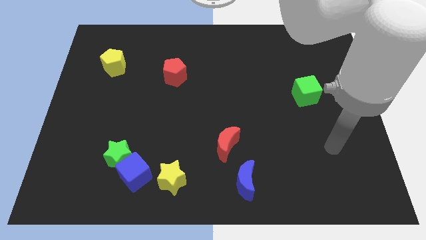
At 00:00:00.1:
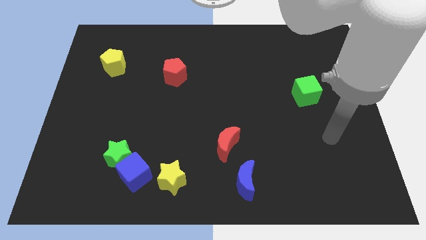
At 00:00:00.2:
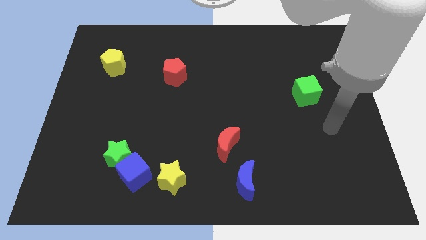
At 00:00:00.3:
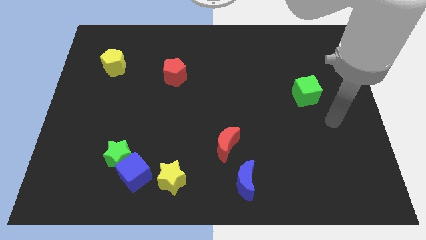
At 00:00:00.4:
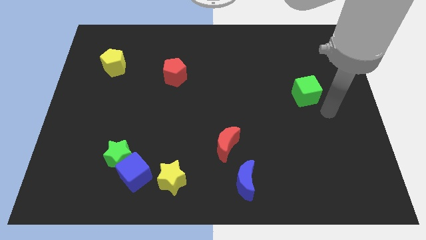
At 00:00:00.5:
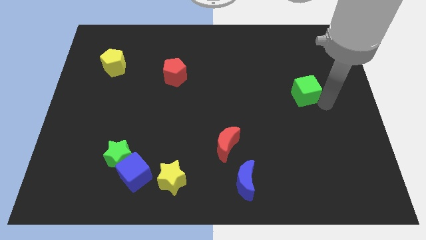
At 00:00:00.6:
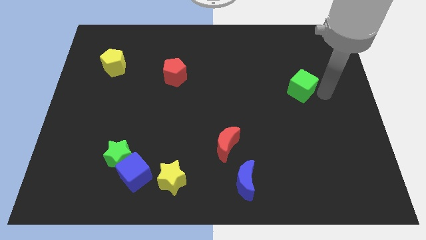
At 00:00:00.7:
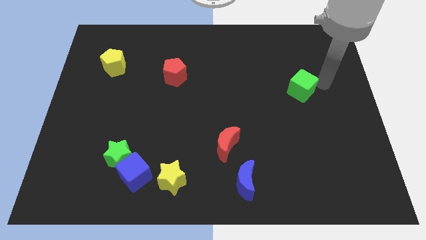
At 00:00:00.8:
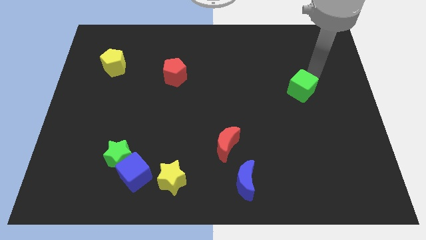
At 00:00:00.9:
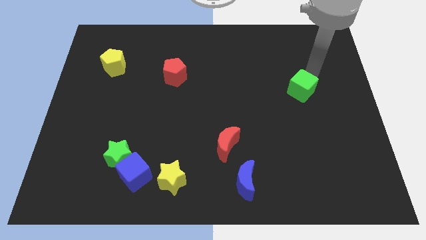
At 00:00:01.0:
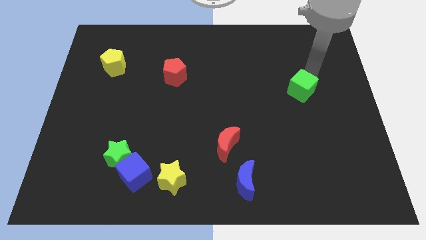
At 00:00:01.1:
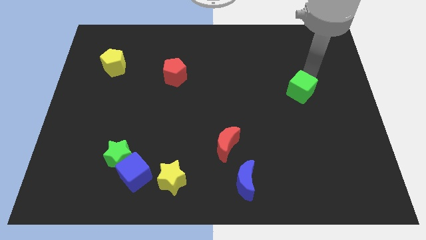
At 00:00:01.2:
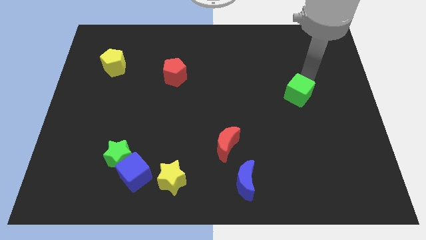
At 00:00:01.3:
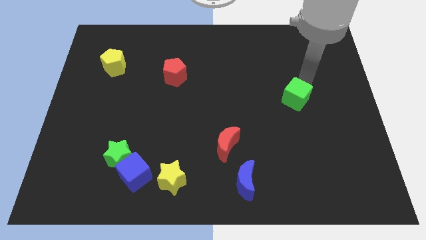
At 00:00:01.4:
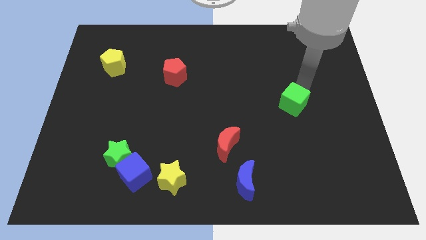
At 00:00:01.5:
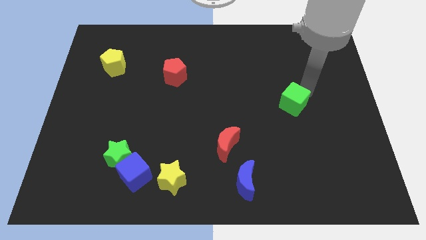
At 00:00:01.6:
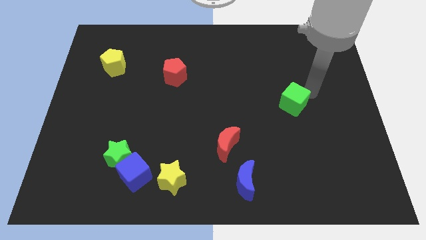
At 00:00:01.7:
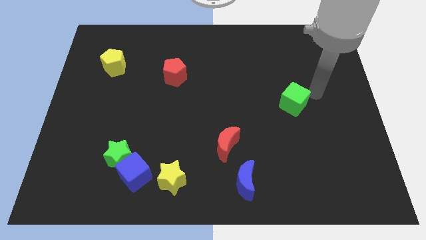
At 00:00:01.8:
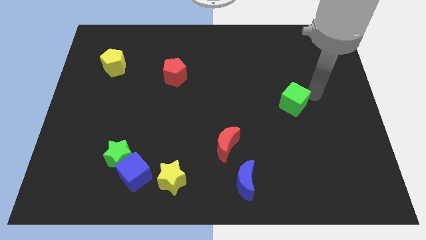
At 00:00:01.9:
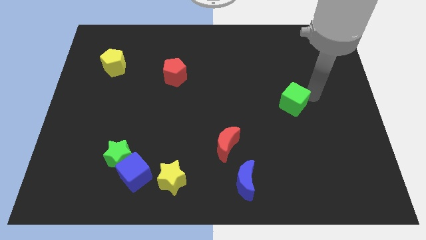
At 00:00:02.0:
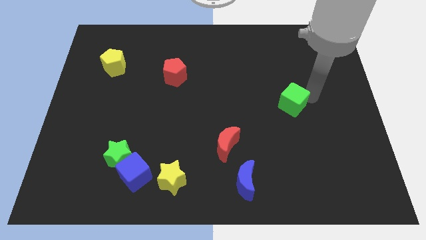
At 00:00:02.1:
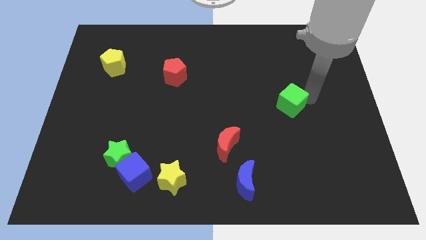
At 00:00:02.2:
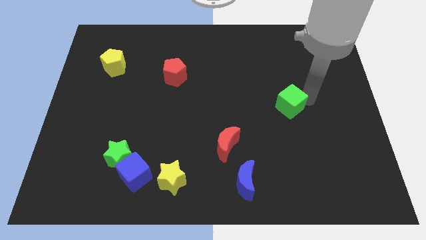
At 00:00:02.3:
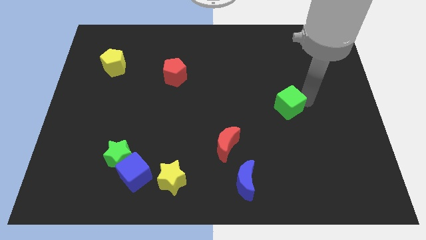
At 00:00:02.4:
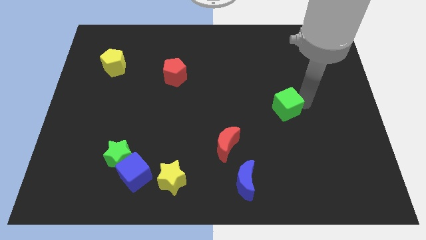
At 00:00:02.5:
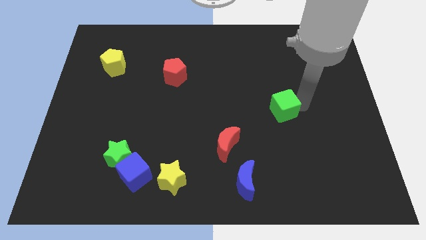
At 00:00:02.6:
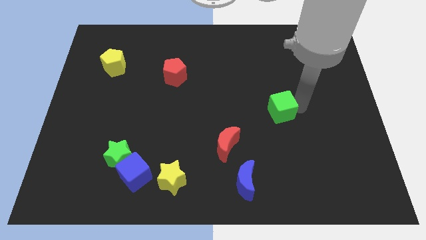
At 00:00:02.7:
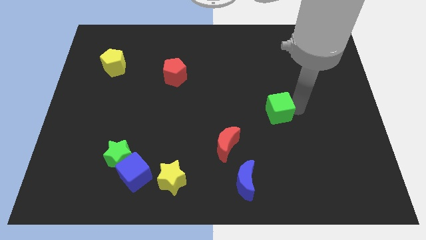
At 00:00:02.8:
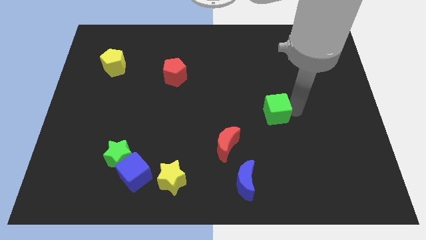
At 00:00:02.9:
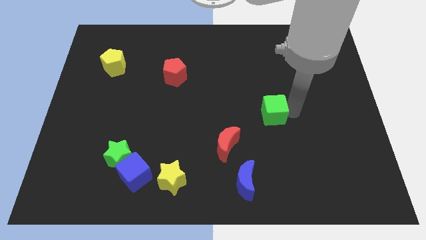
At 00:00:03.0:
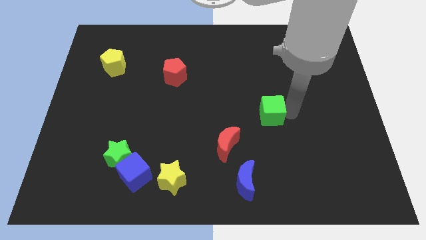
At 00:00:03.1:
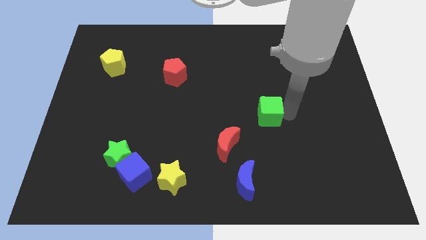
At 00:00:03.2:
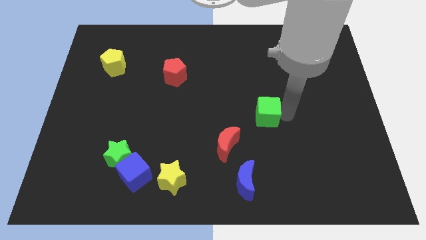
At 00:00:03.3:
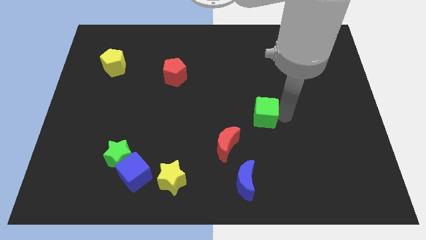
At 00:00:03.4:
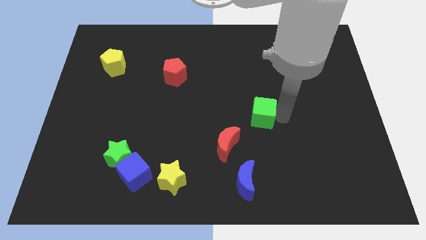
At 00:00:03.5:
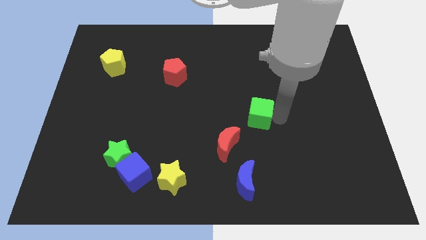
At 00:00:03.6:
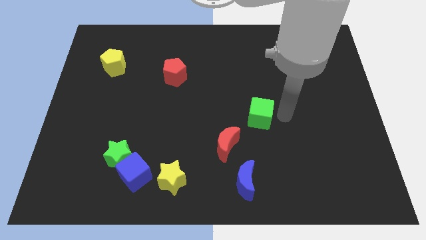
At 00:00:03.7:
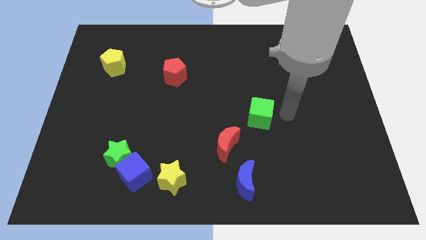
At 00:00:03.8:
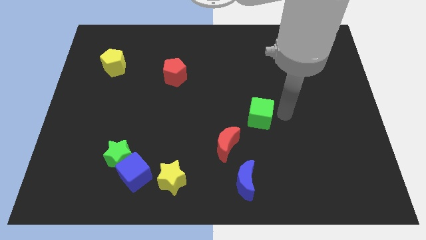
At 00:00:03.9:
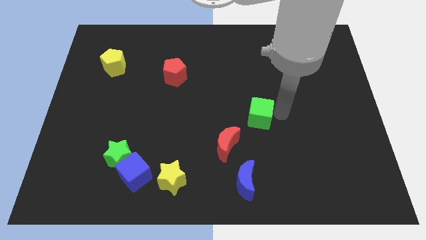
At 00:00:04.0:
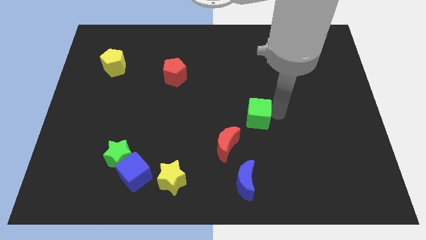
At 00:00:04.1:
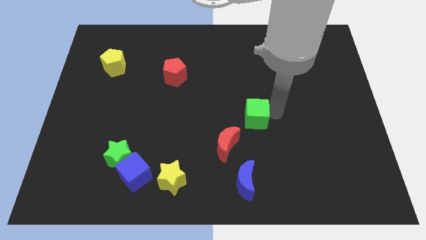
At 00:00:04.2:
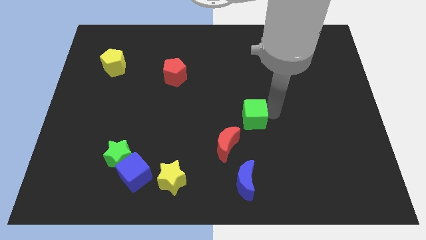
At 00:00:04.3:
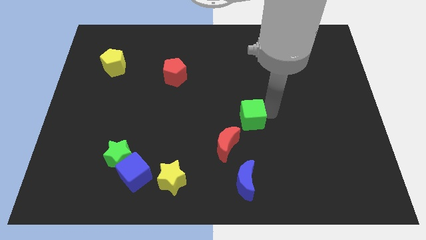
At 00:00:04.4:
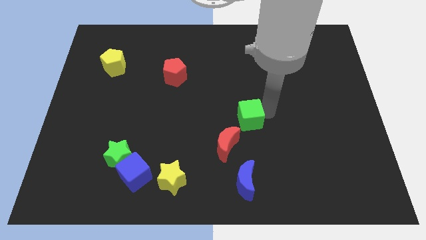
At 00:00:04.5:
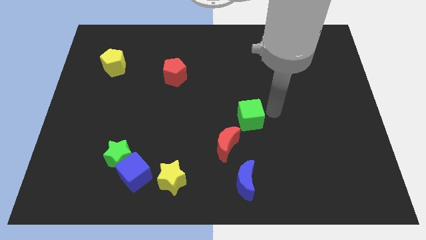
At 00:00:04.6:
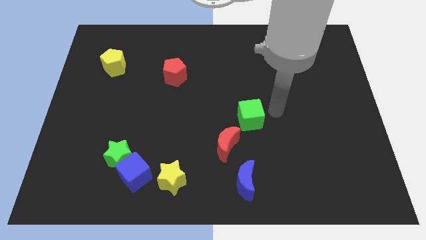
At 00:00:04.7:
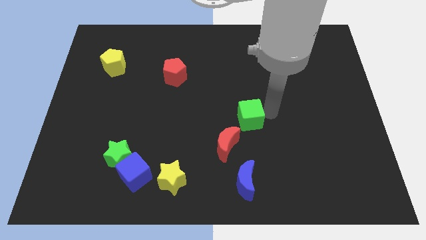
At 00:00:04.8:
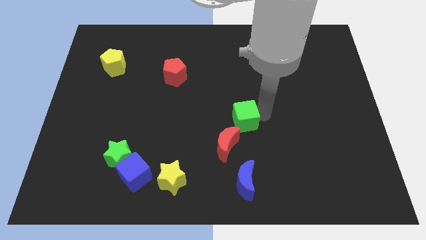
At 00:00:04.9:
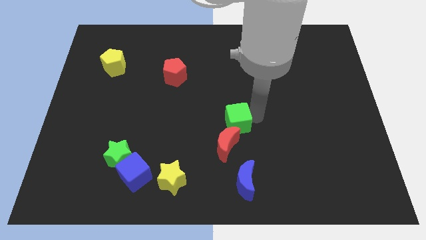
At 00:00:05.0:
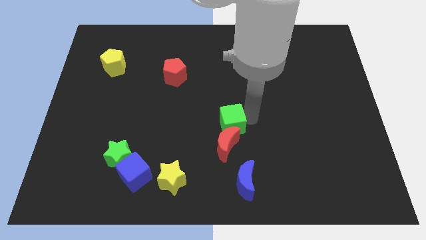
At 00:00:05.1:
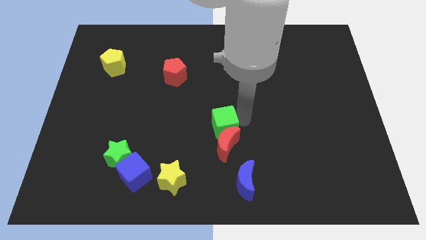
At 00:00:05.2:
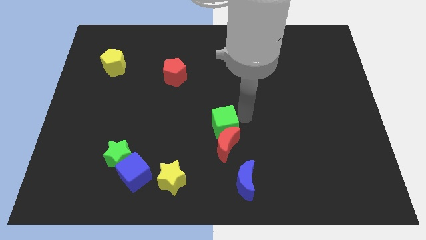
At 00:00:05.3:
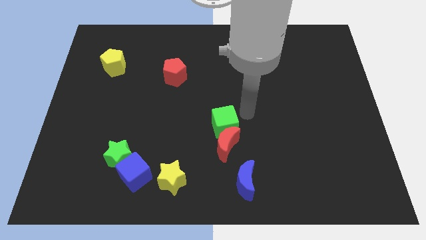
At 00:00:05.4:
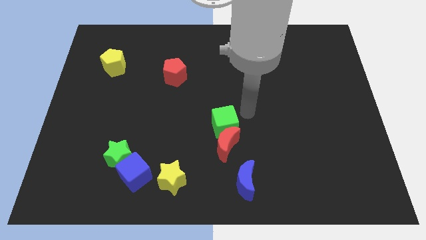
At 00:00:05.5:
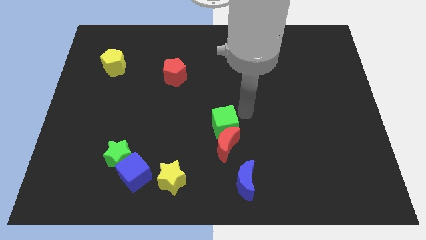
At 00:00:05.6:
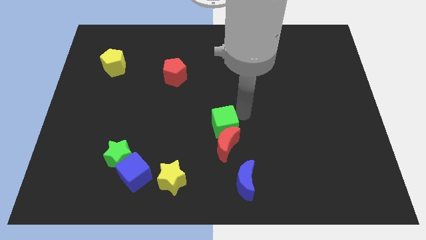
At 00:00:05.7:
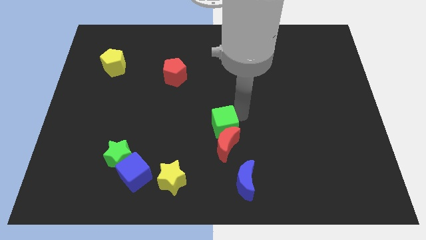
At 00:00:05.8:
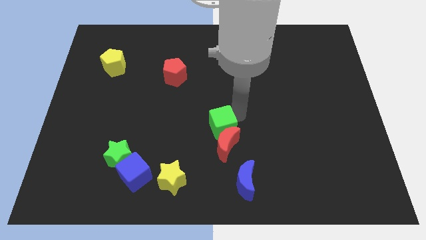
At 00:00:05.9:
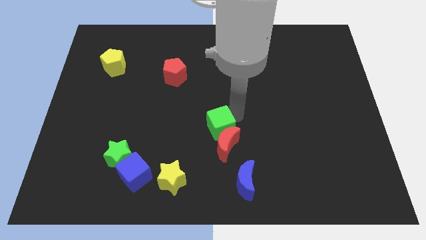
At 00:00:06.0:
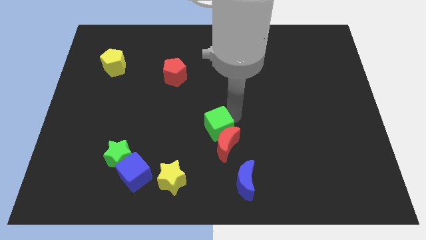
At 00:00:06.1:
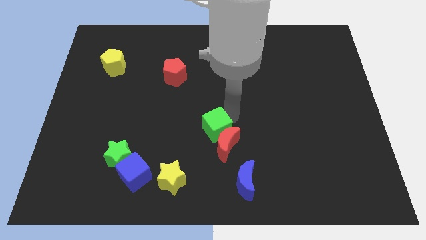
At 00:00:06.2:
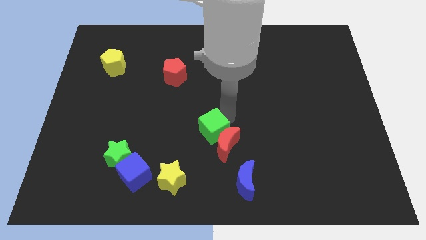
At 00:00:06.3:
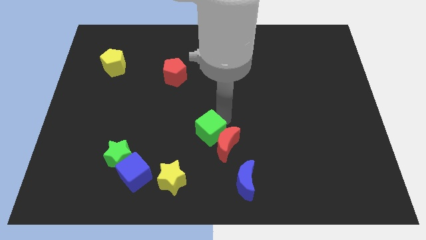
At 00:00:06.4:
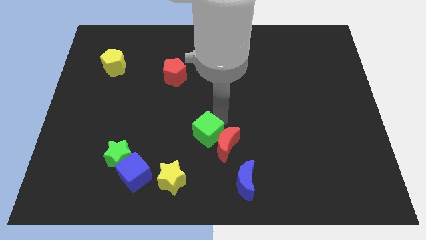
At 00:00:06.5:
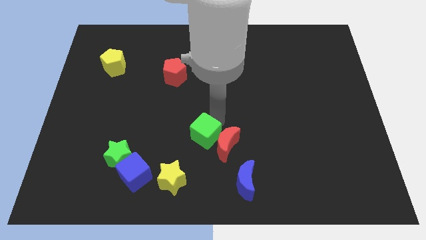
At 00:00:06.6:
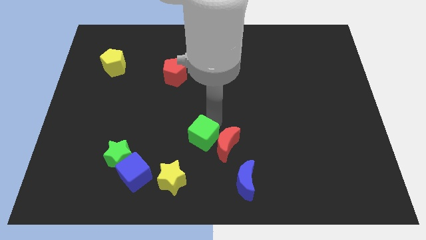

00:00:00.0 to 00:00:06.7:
push the green cube to the top right side of the yellow star
